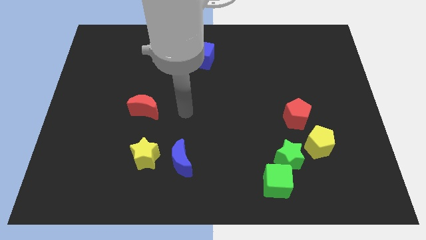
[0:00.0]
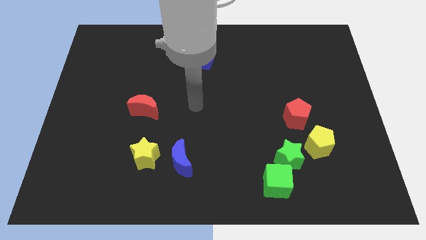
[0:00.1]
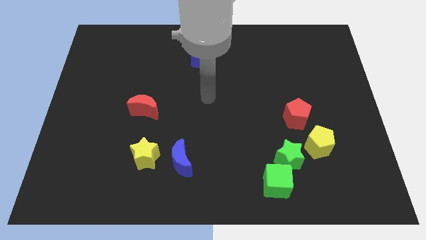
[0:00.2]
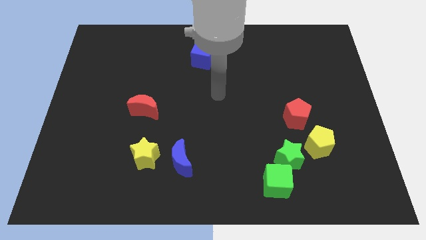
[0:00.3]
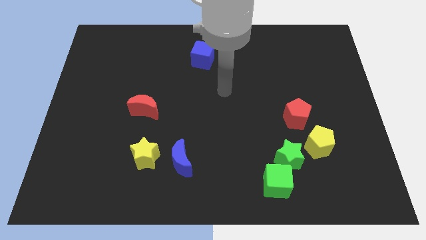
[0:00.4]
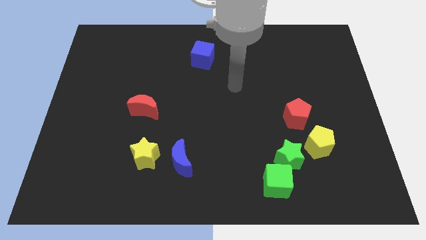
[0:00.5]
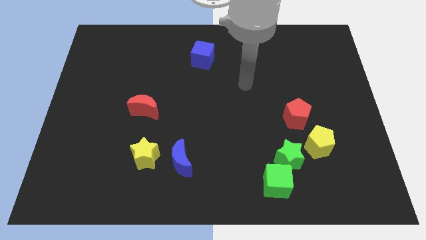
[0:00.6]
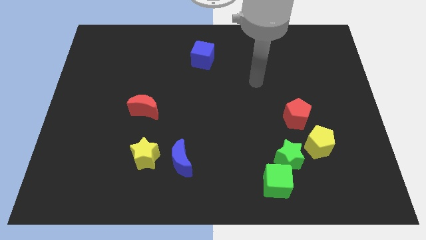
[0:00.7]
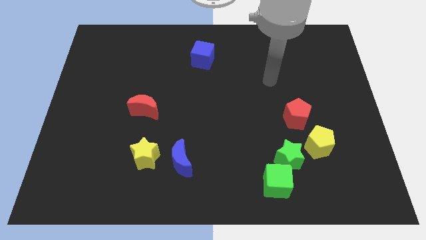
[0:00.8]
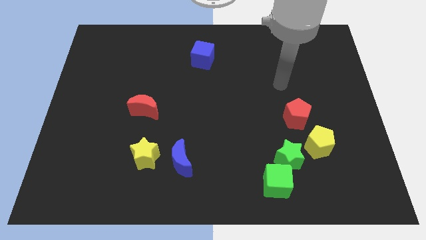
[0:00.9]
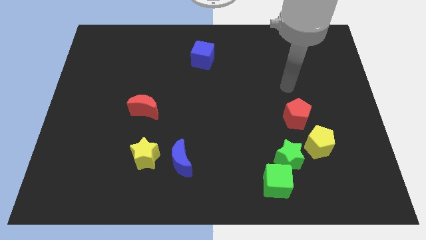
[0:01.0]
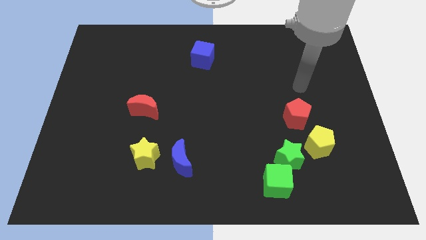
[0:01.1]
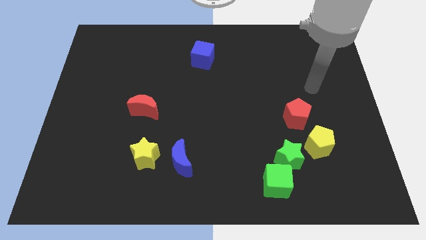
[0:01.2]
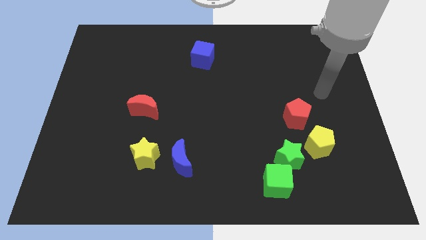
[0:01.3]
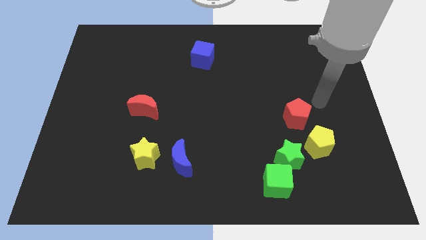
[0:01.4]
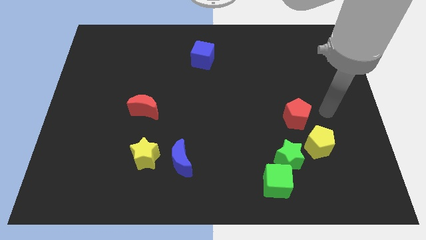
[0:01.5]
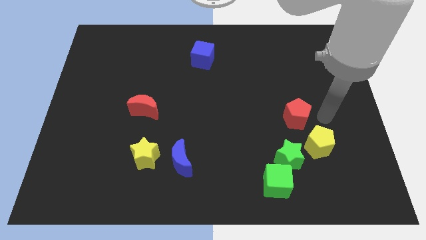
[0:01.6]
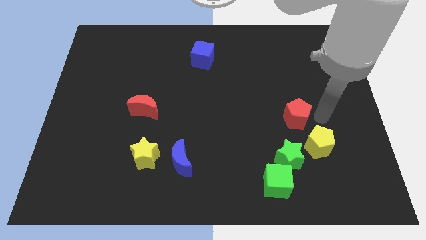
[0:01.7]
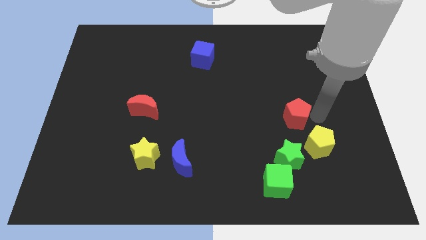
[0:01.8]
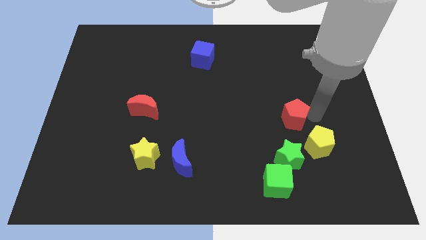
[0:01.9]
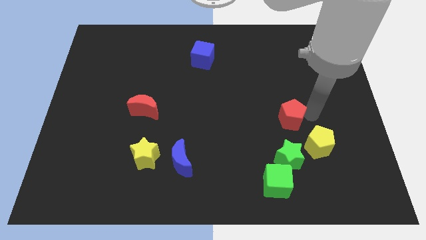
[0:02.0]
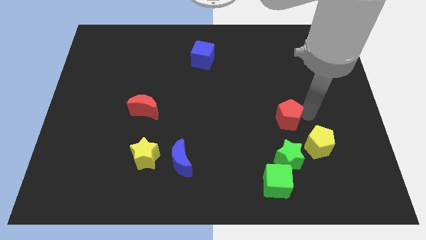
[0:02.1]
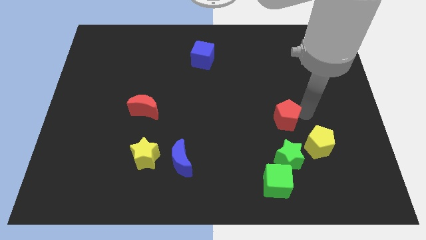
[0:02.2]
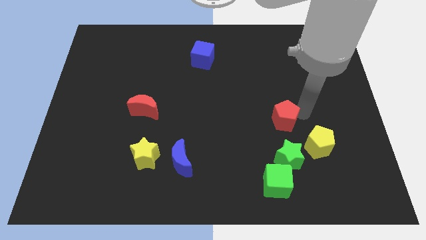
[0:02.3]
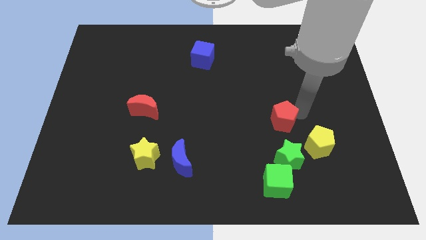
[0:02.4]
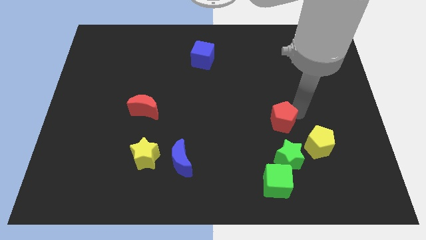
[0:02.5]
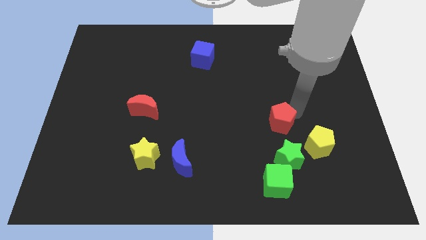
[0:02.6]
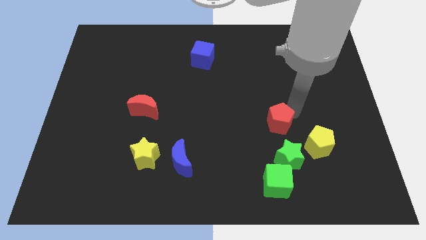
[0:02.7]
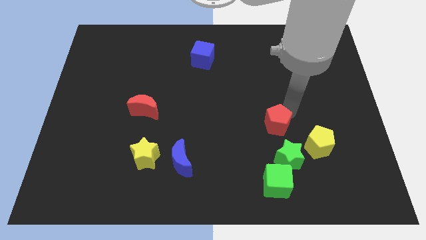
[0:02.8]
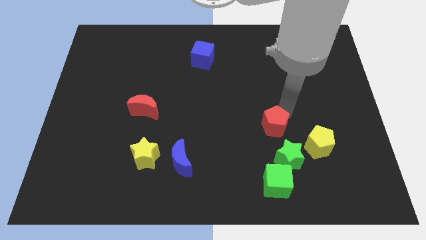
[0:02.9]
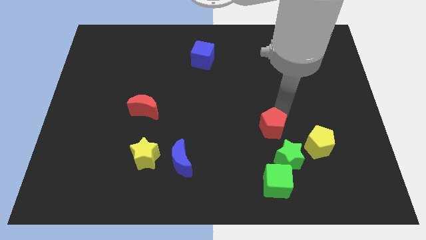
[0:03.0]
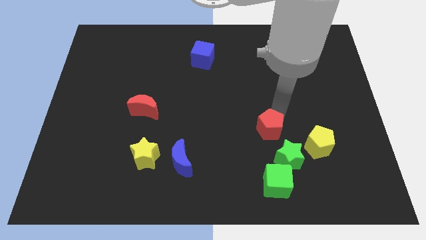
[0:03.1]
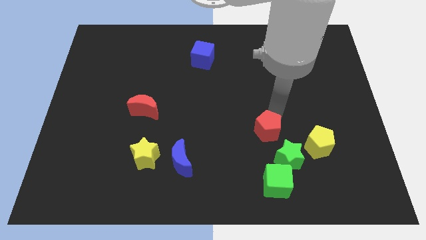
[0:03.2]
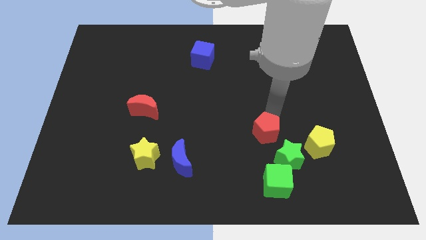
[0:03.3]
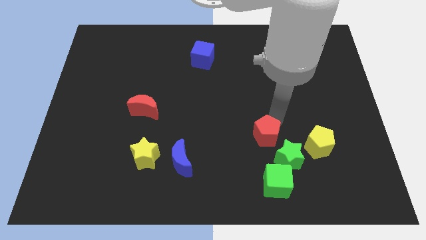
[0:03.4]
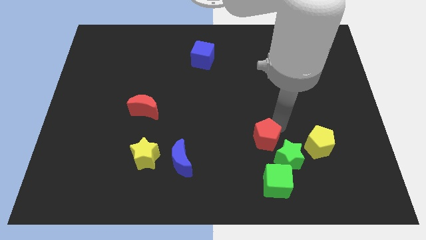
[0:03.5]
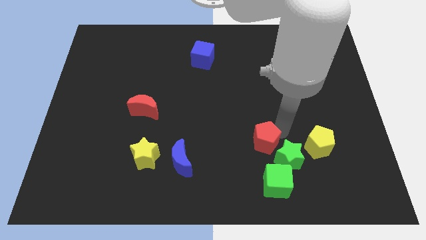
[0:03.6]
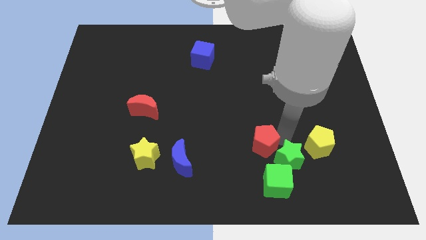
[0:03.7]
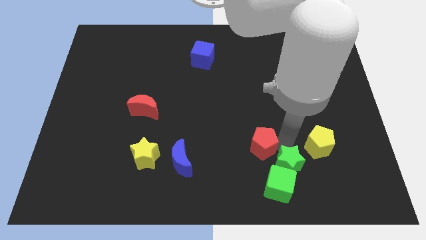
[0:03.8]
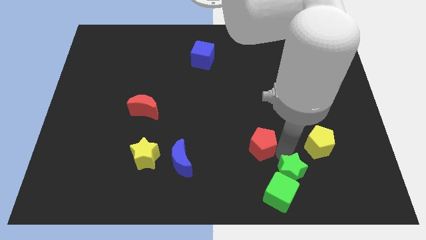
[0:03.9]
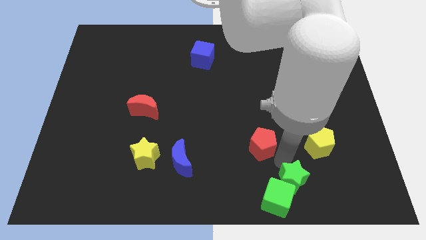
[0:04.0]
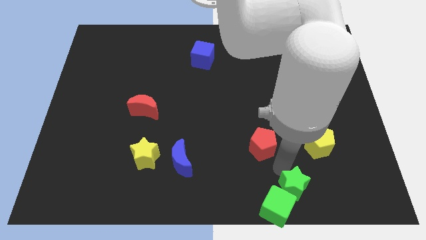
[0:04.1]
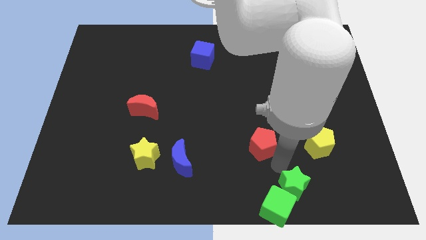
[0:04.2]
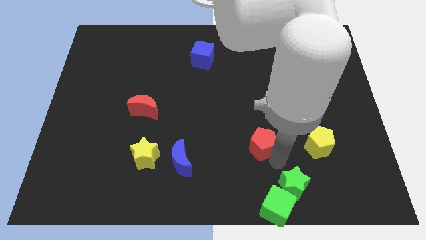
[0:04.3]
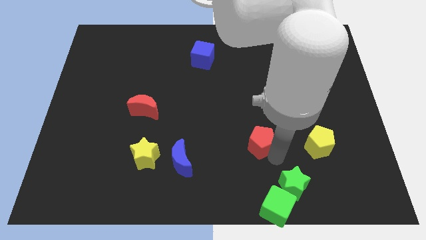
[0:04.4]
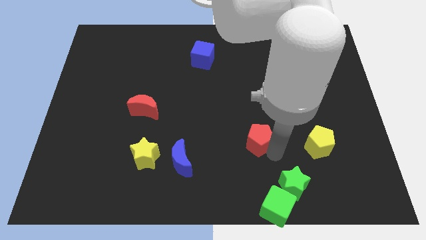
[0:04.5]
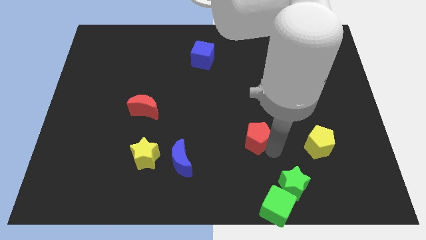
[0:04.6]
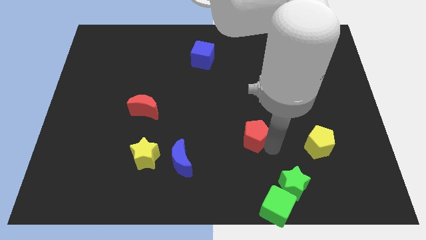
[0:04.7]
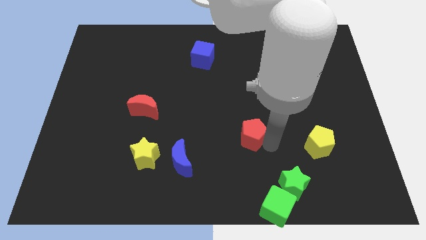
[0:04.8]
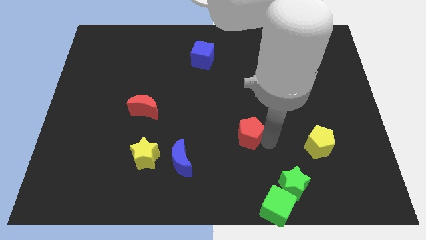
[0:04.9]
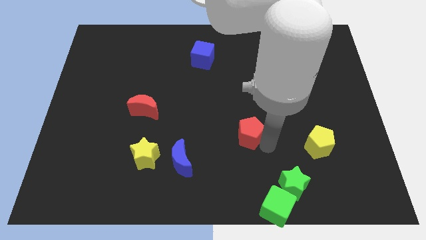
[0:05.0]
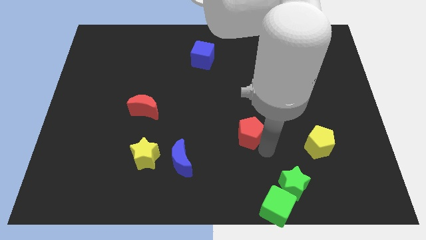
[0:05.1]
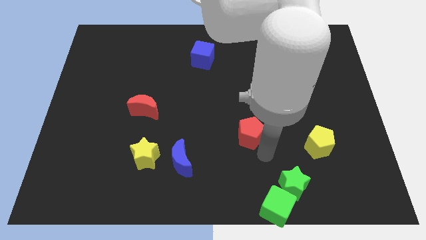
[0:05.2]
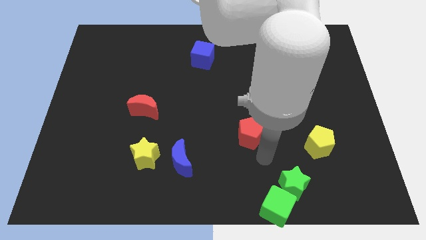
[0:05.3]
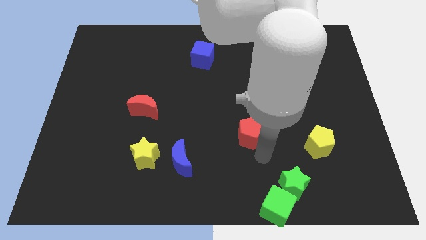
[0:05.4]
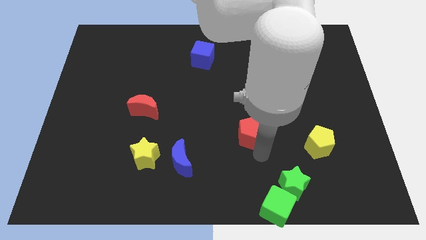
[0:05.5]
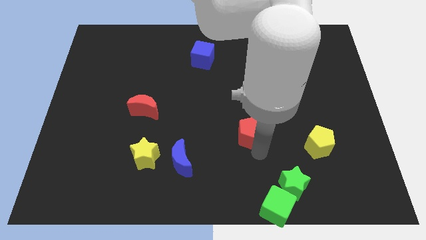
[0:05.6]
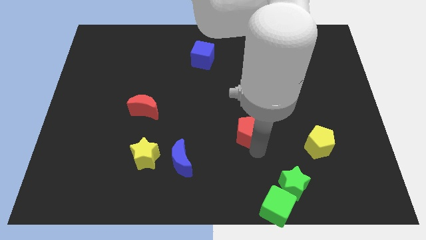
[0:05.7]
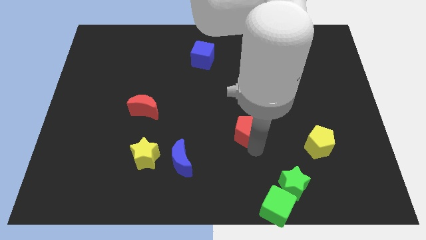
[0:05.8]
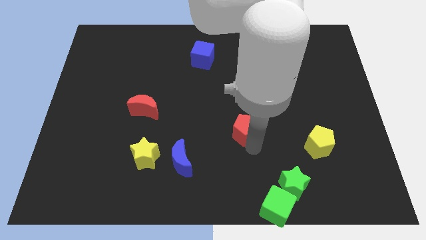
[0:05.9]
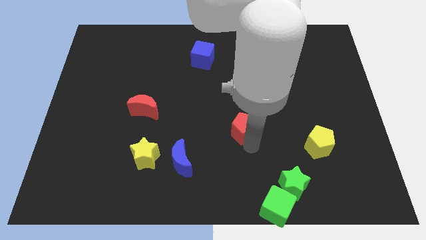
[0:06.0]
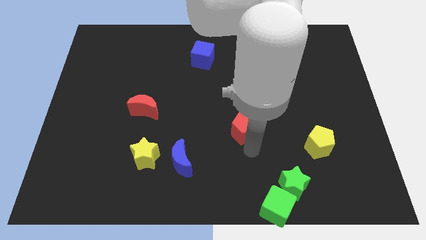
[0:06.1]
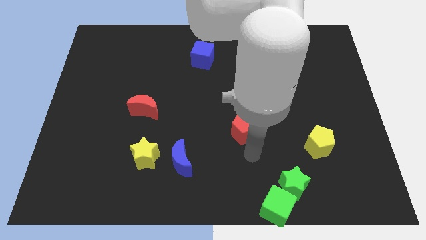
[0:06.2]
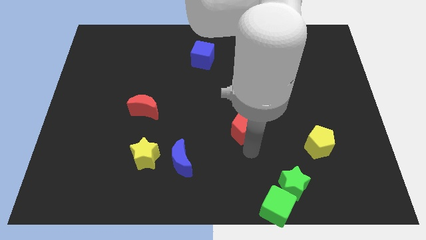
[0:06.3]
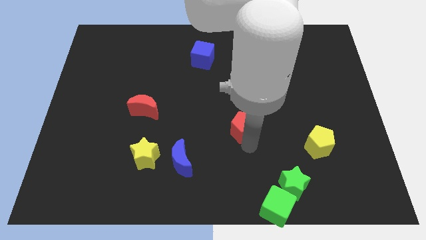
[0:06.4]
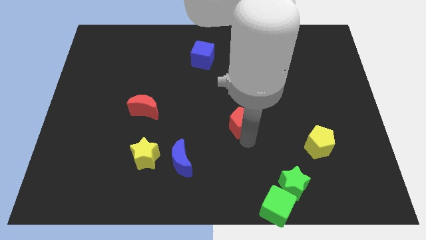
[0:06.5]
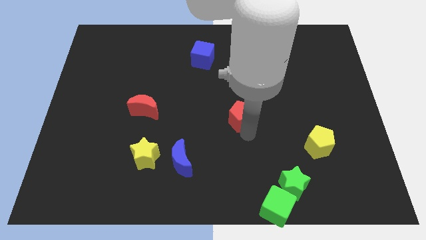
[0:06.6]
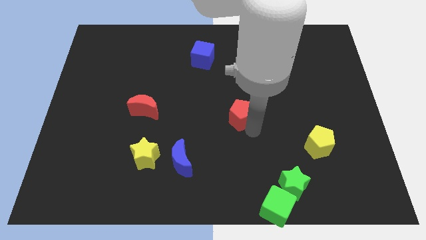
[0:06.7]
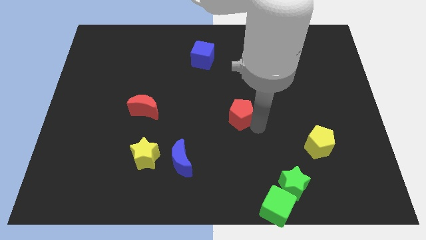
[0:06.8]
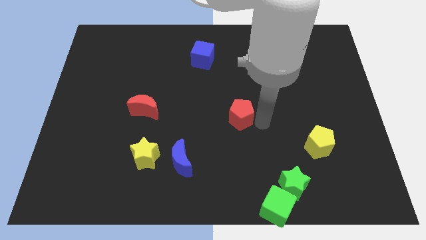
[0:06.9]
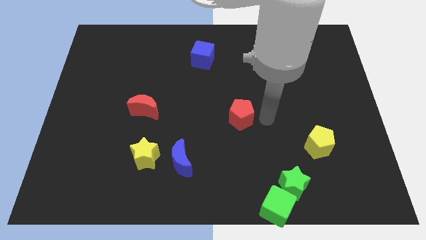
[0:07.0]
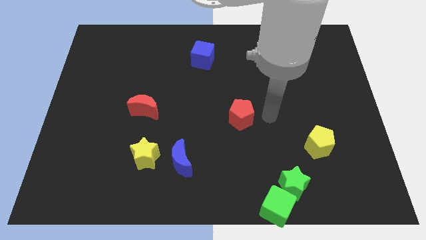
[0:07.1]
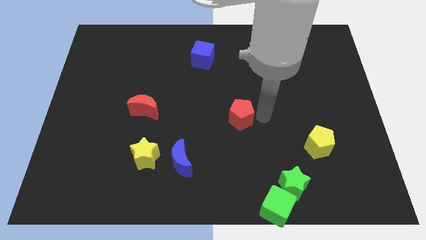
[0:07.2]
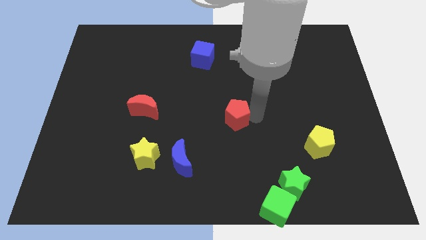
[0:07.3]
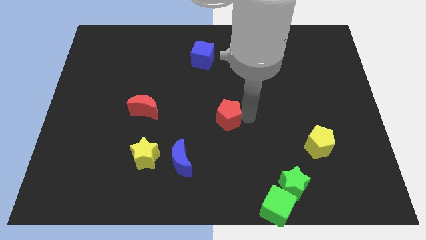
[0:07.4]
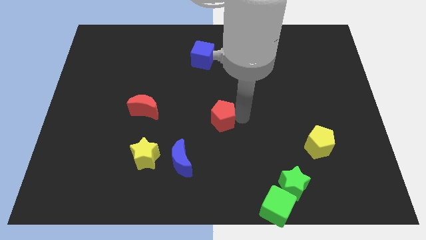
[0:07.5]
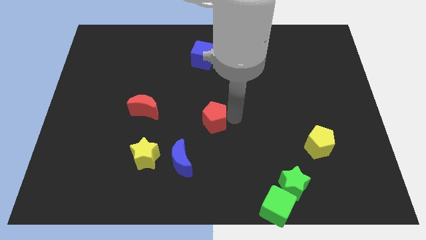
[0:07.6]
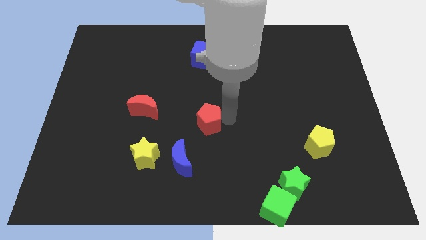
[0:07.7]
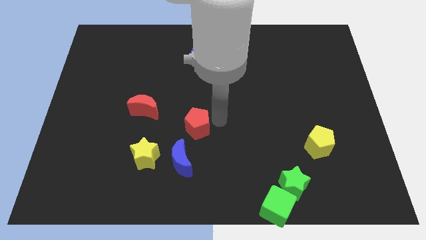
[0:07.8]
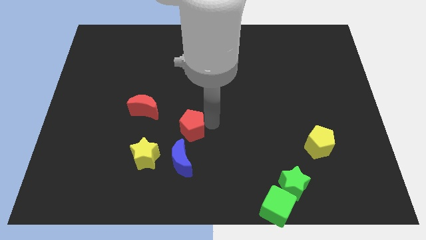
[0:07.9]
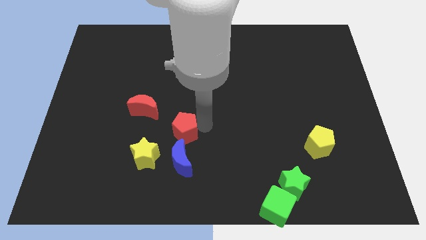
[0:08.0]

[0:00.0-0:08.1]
push the red pentagon diagonally down and to the right of the red moon
